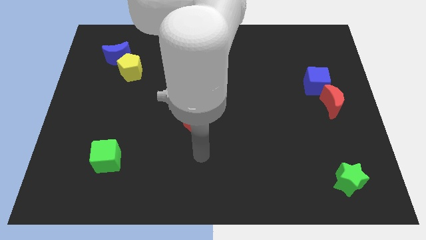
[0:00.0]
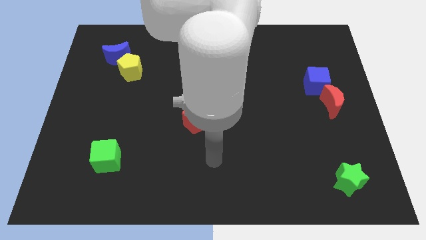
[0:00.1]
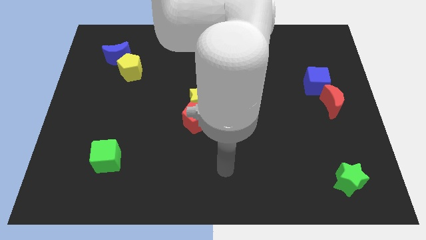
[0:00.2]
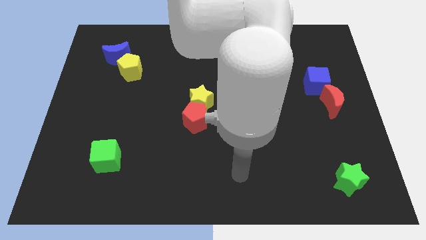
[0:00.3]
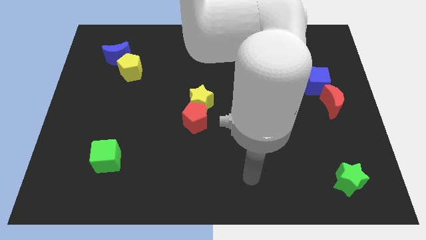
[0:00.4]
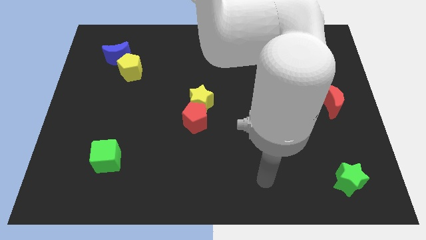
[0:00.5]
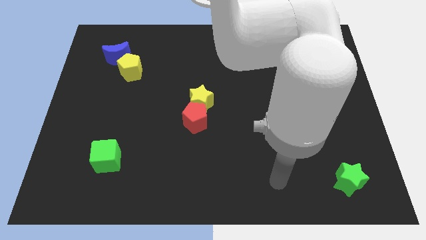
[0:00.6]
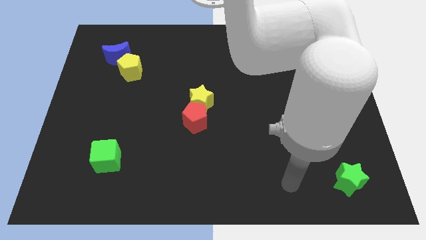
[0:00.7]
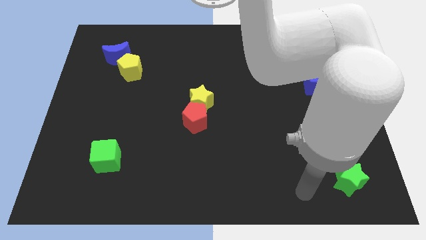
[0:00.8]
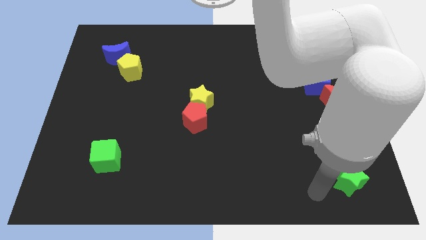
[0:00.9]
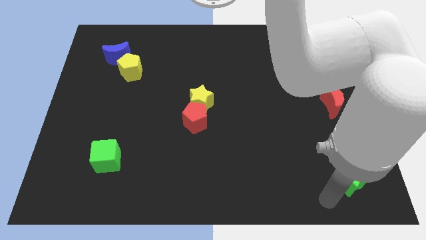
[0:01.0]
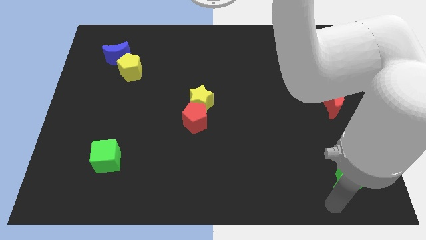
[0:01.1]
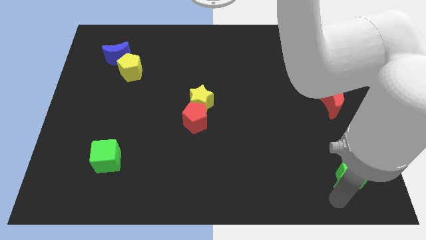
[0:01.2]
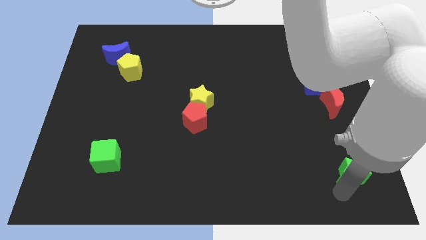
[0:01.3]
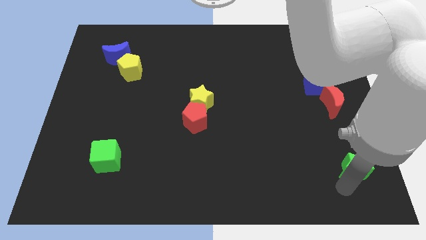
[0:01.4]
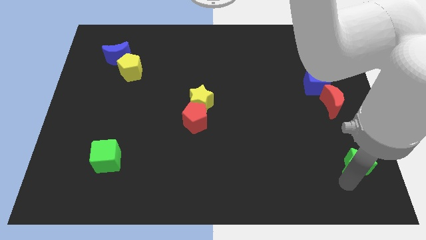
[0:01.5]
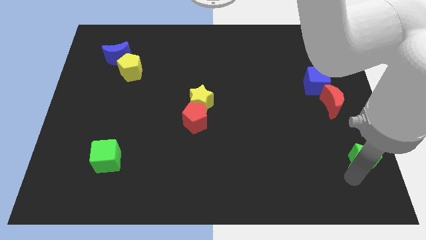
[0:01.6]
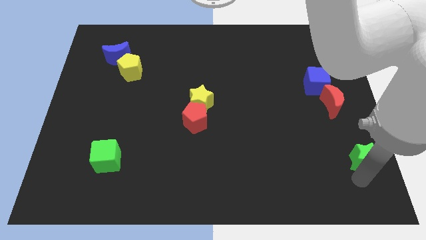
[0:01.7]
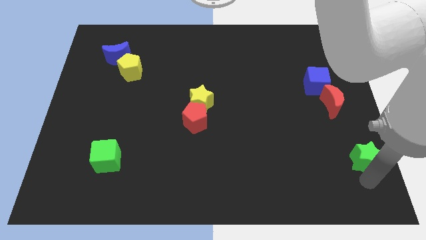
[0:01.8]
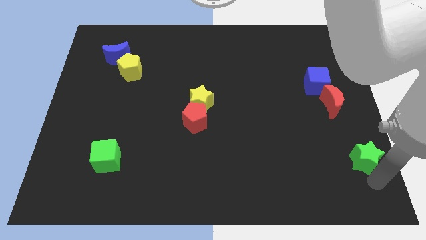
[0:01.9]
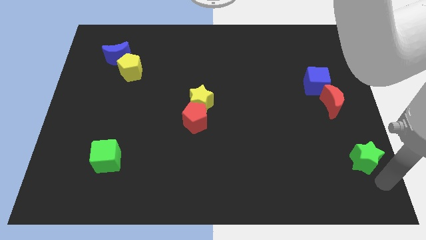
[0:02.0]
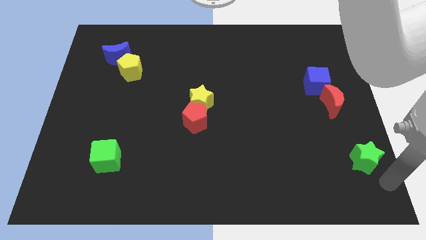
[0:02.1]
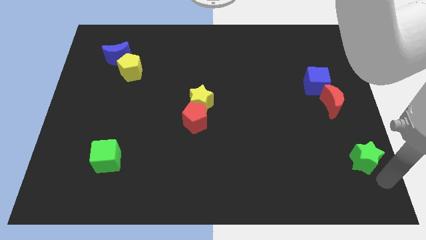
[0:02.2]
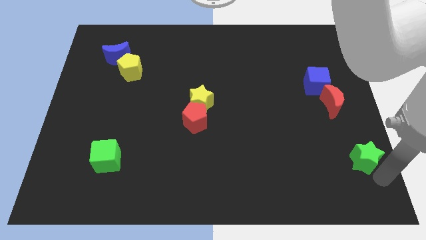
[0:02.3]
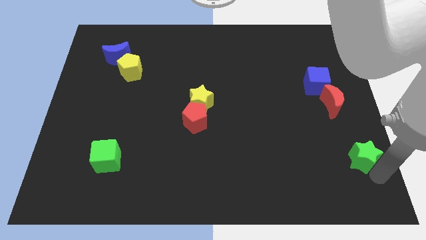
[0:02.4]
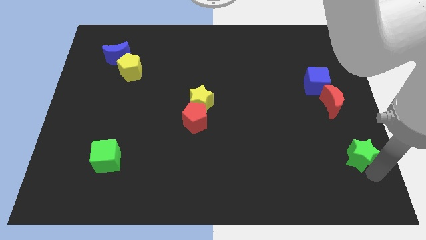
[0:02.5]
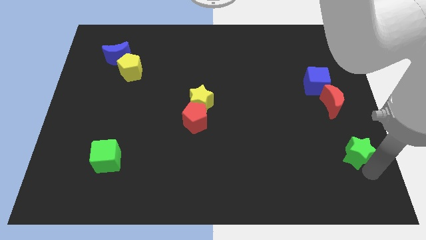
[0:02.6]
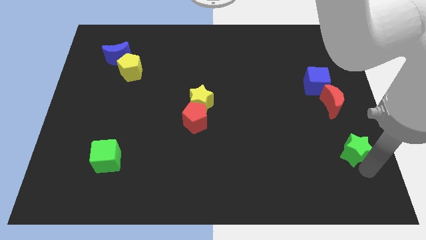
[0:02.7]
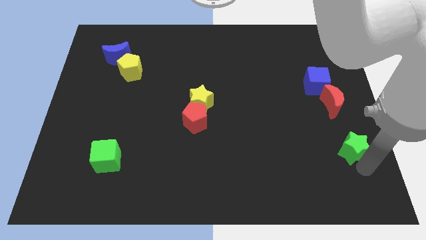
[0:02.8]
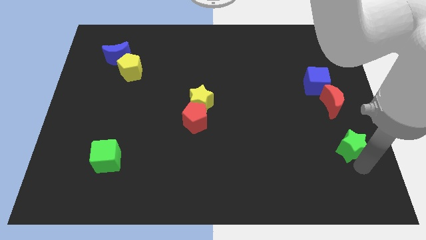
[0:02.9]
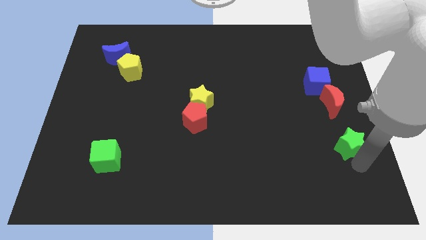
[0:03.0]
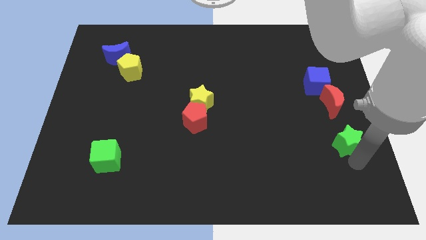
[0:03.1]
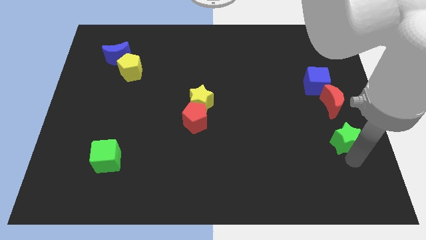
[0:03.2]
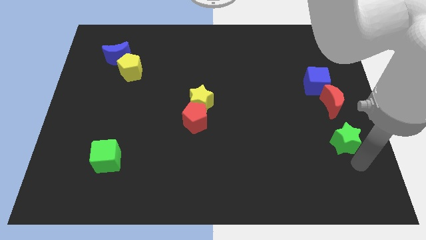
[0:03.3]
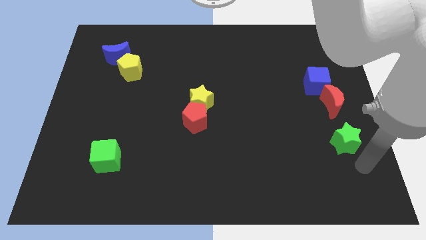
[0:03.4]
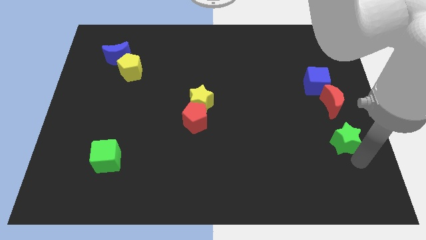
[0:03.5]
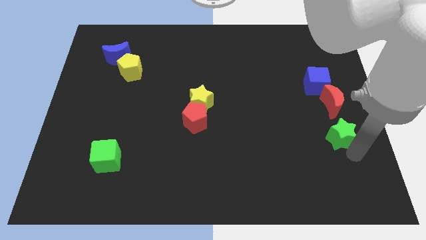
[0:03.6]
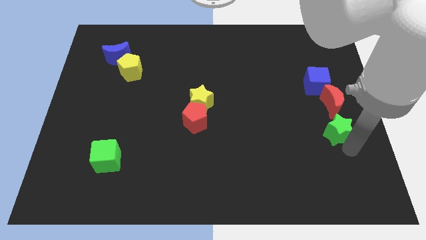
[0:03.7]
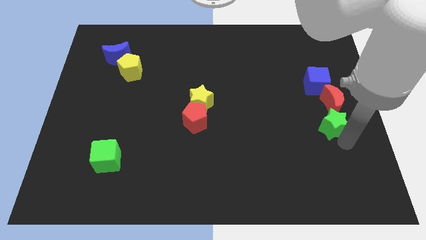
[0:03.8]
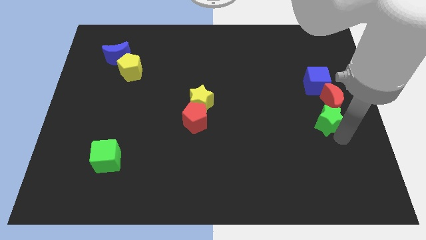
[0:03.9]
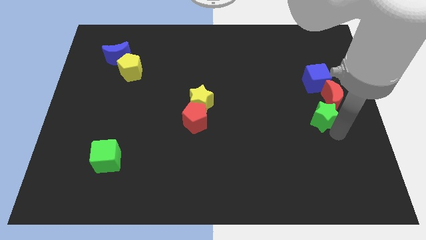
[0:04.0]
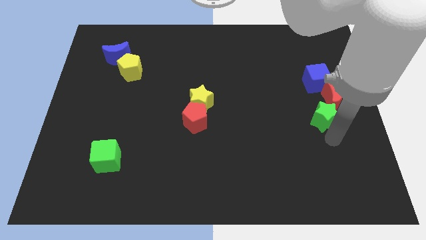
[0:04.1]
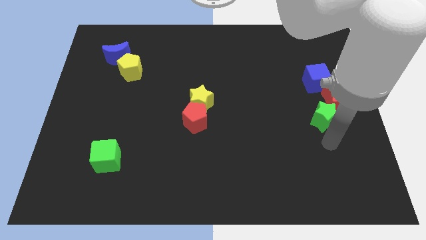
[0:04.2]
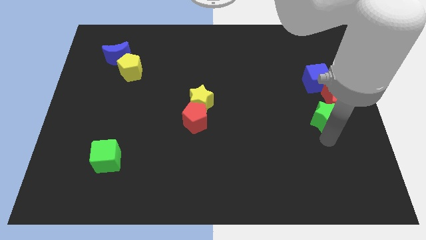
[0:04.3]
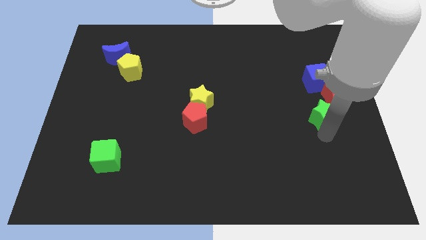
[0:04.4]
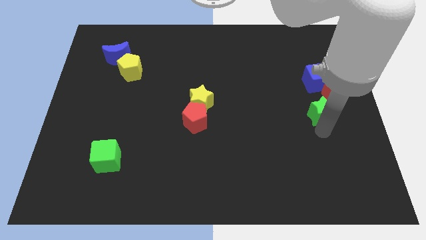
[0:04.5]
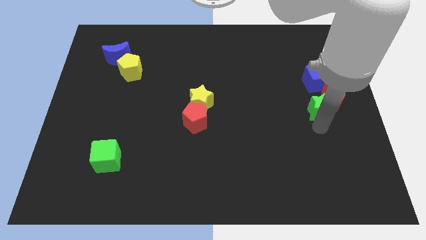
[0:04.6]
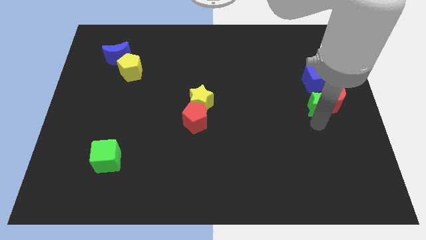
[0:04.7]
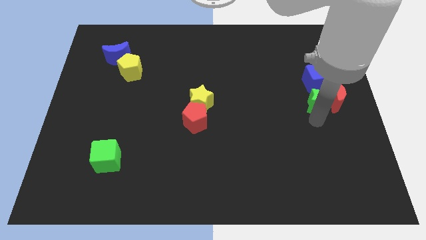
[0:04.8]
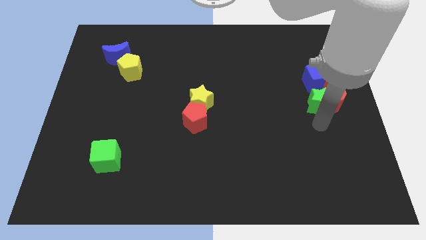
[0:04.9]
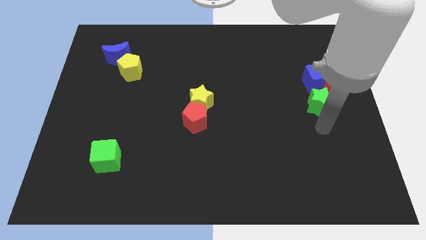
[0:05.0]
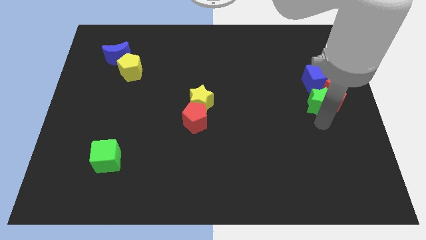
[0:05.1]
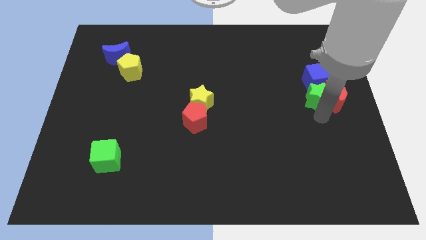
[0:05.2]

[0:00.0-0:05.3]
put the green star to the blue cube

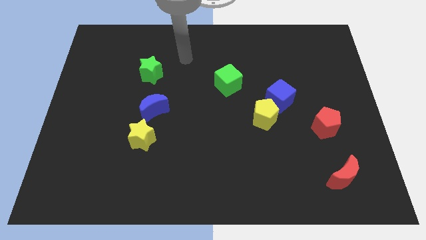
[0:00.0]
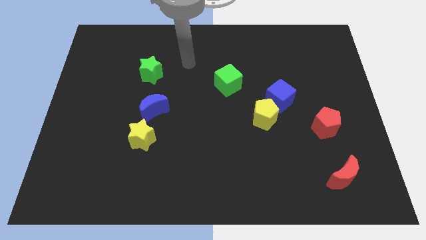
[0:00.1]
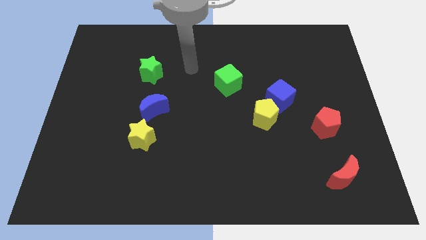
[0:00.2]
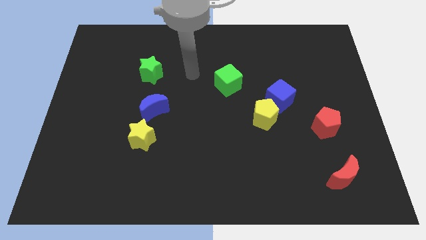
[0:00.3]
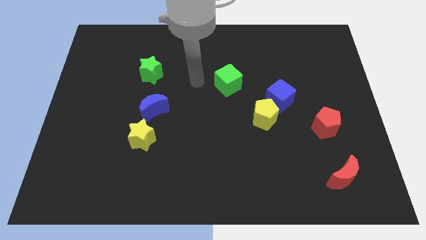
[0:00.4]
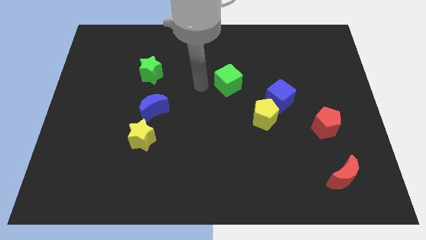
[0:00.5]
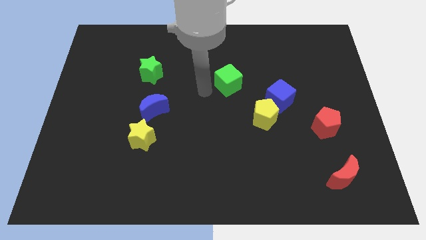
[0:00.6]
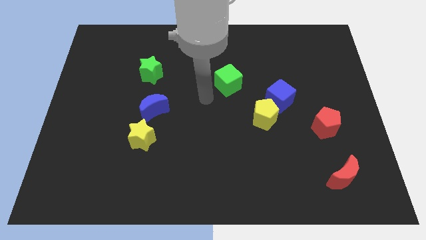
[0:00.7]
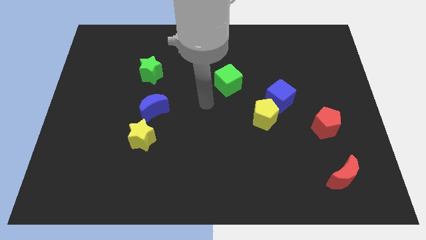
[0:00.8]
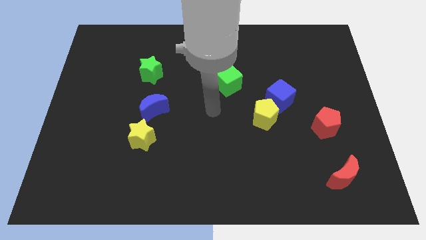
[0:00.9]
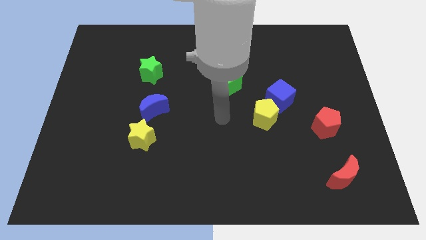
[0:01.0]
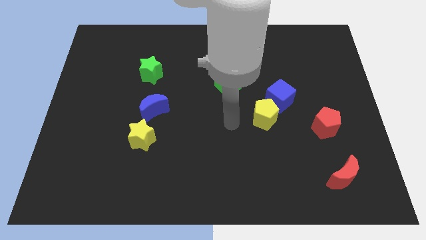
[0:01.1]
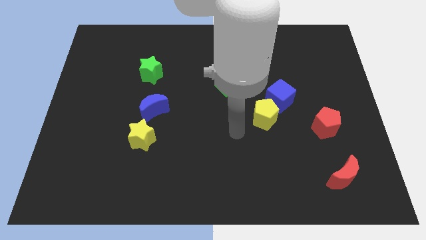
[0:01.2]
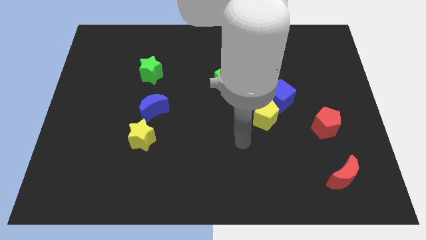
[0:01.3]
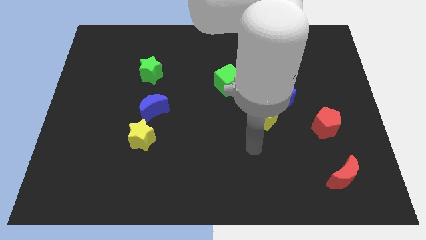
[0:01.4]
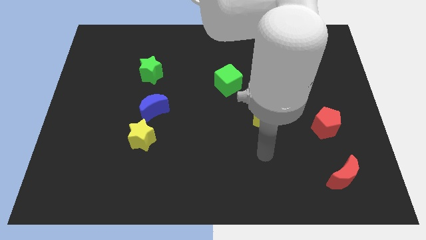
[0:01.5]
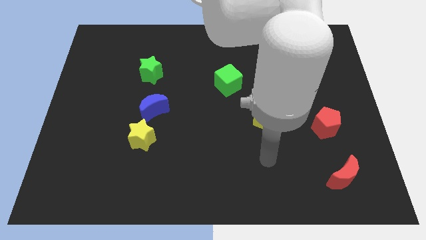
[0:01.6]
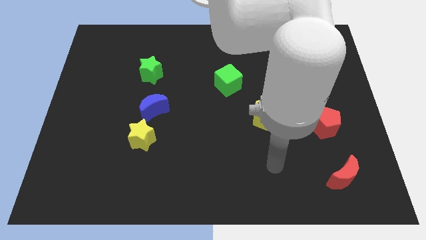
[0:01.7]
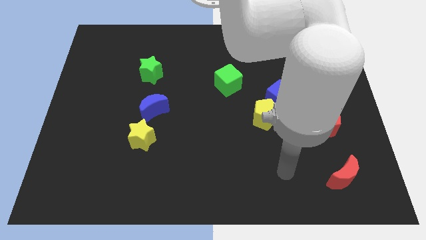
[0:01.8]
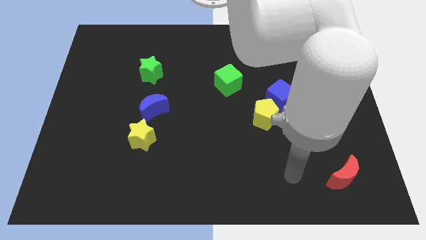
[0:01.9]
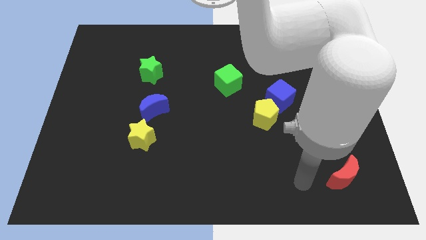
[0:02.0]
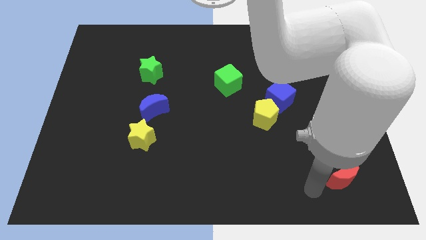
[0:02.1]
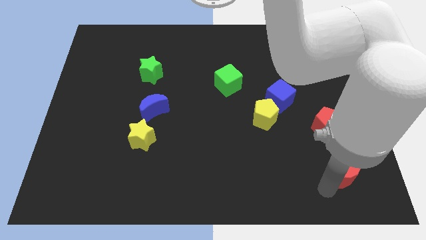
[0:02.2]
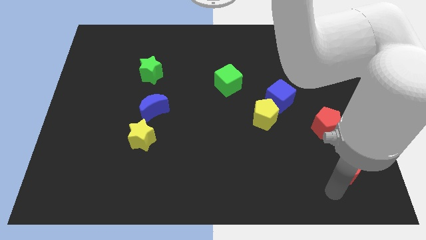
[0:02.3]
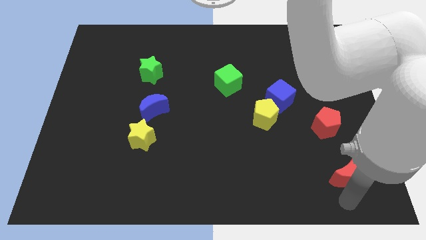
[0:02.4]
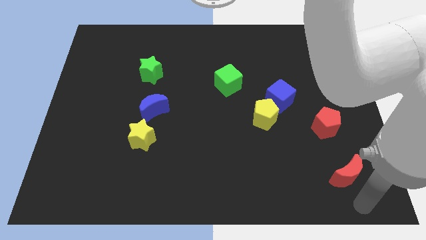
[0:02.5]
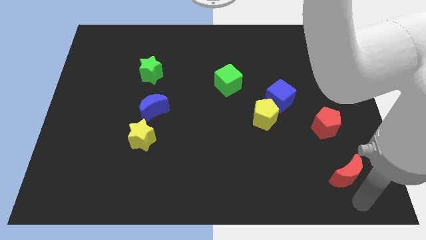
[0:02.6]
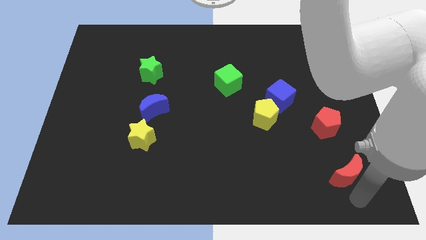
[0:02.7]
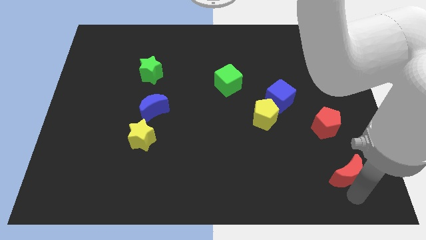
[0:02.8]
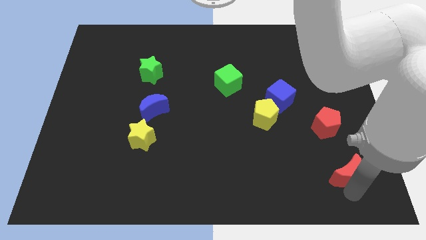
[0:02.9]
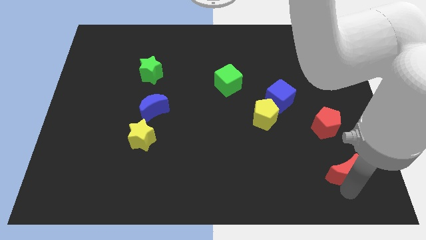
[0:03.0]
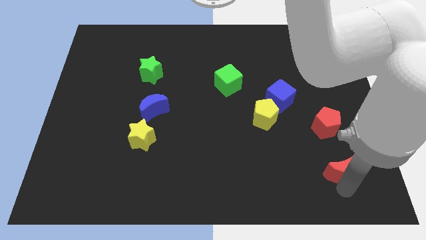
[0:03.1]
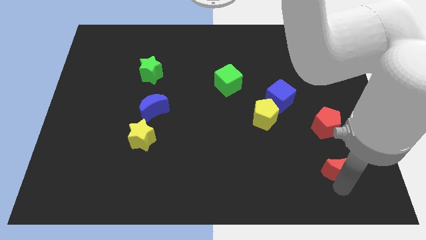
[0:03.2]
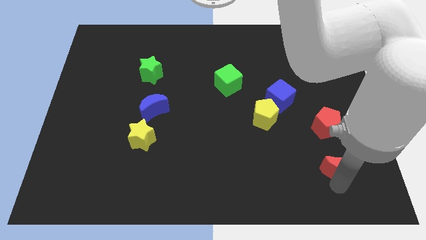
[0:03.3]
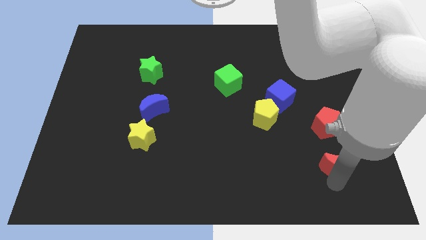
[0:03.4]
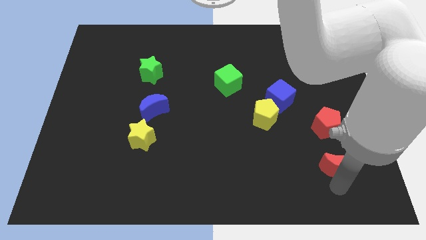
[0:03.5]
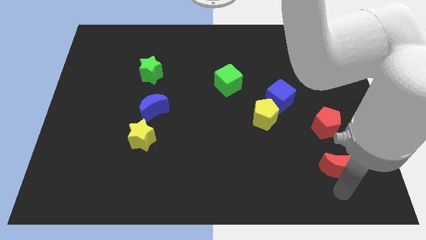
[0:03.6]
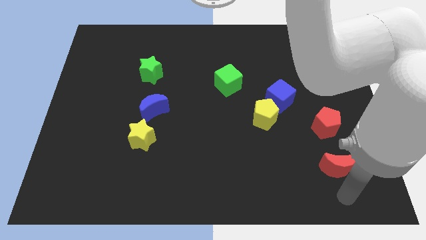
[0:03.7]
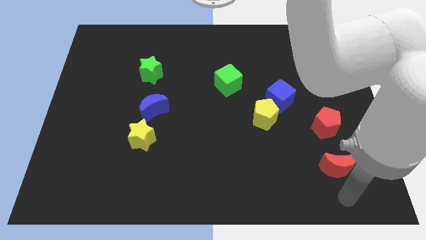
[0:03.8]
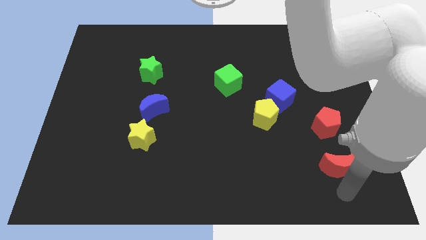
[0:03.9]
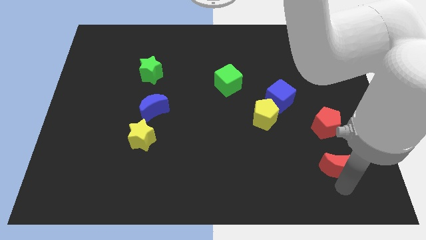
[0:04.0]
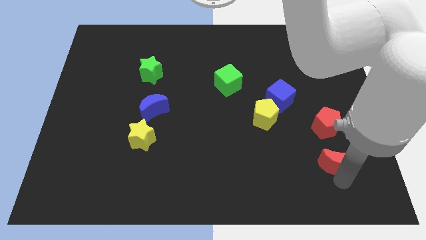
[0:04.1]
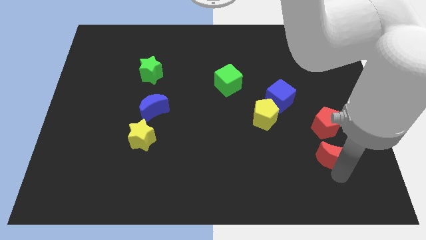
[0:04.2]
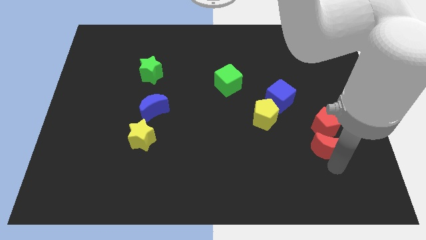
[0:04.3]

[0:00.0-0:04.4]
move the red moon next to the red pentagon
